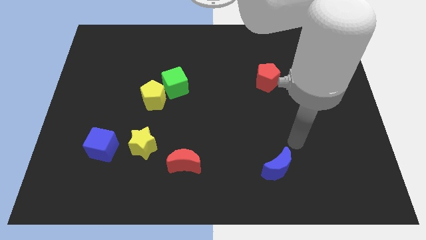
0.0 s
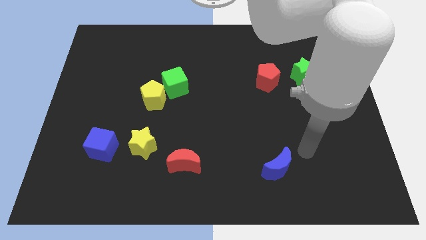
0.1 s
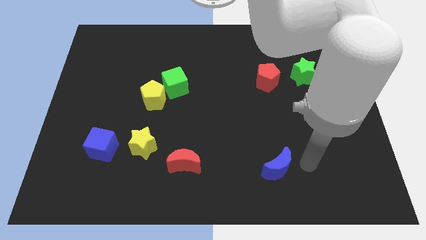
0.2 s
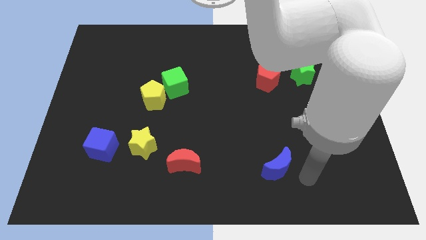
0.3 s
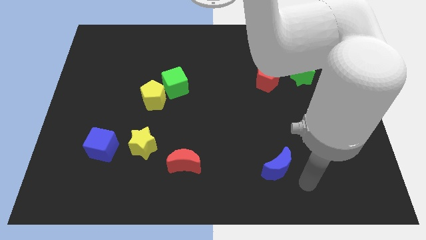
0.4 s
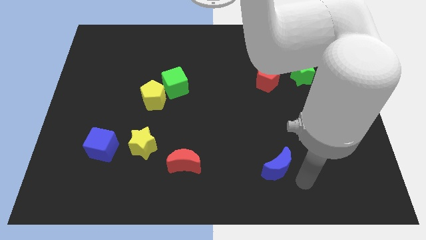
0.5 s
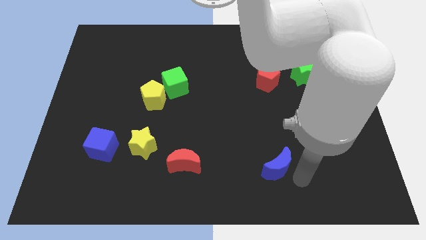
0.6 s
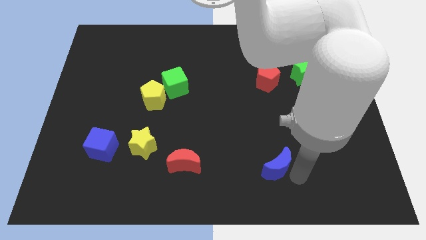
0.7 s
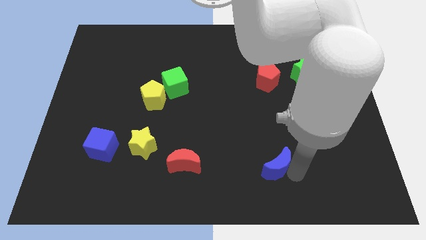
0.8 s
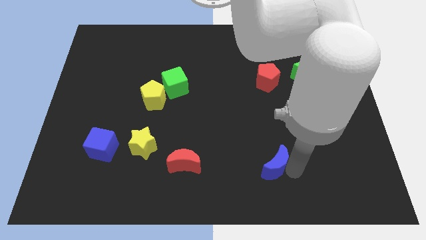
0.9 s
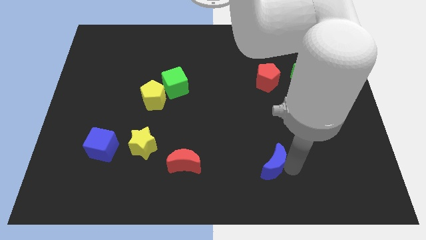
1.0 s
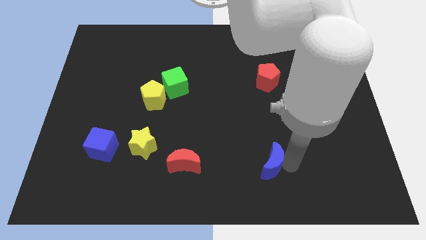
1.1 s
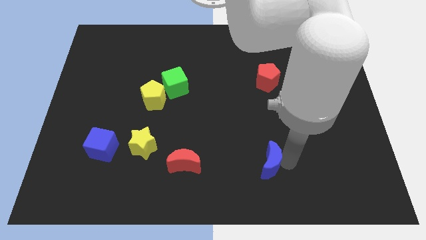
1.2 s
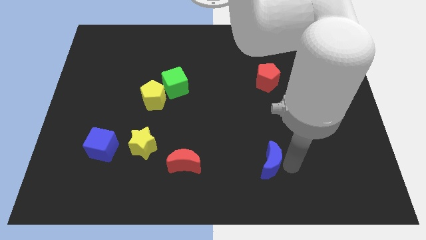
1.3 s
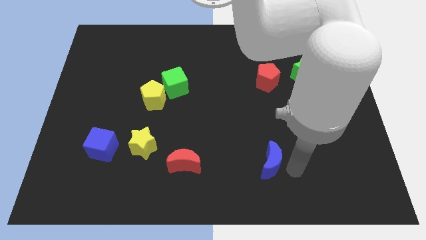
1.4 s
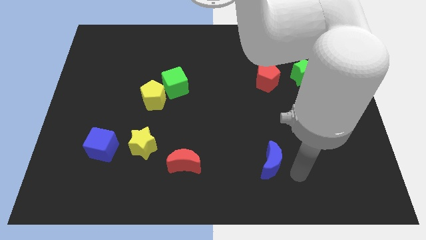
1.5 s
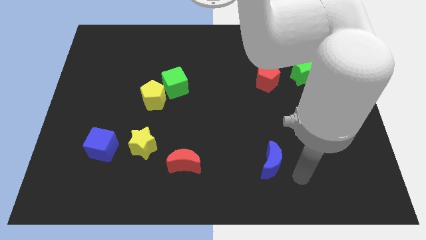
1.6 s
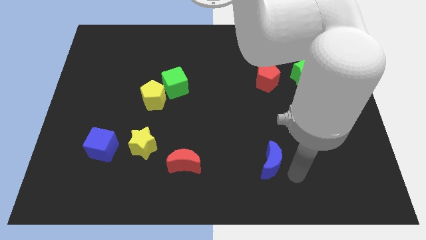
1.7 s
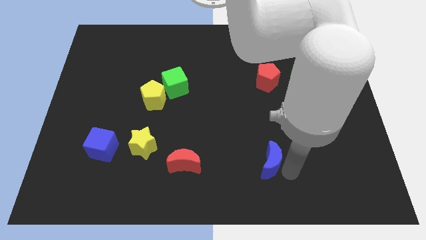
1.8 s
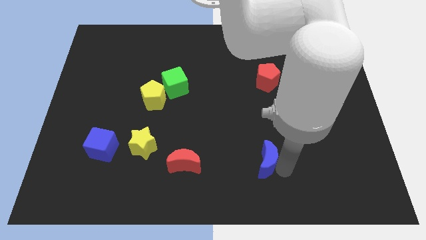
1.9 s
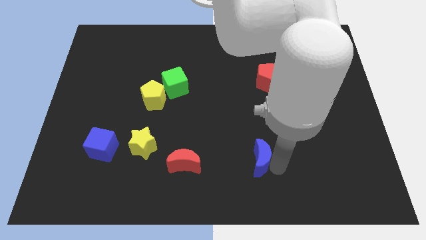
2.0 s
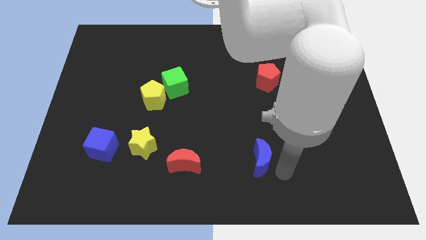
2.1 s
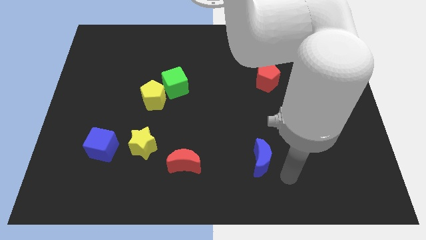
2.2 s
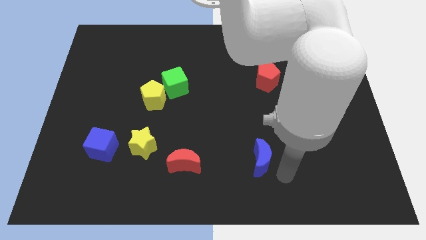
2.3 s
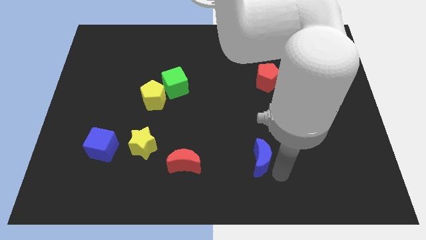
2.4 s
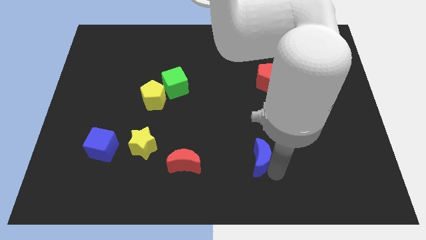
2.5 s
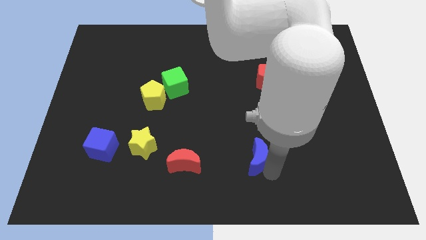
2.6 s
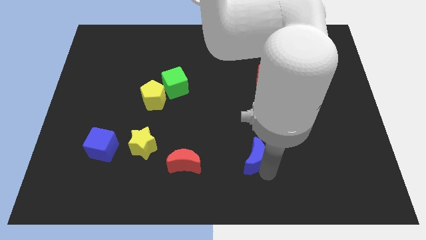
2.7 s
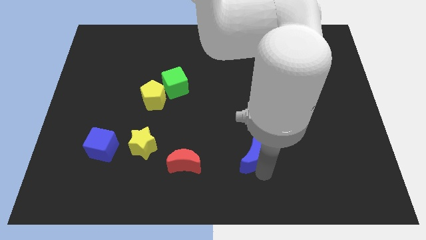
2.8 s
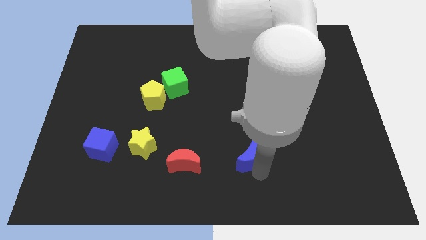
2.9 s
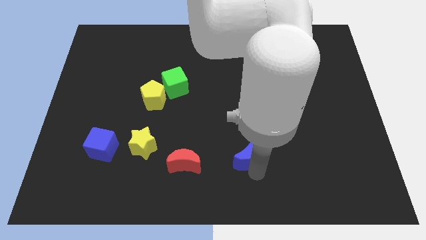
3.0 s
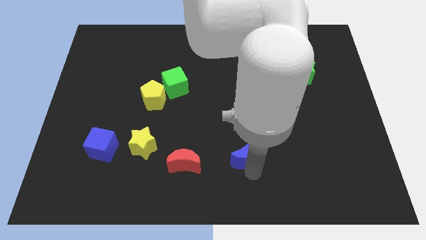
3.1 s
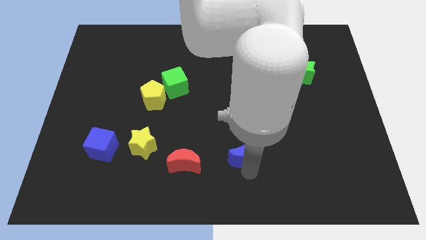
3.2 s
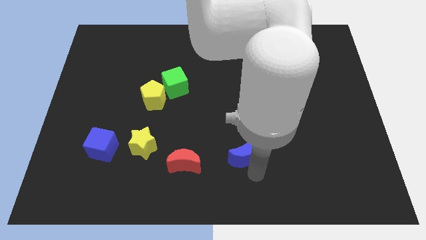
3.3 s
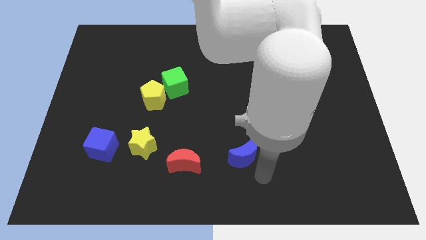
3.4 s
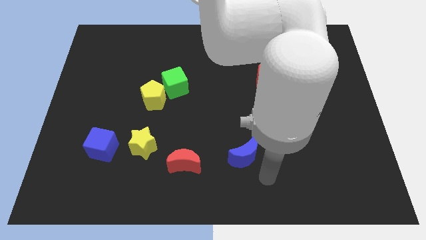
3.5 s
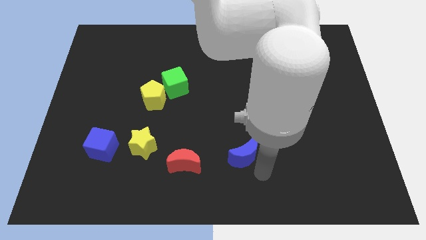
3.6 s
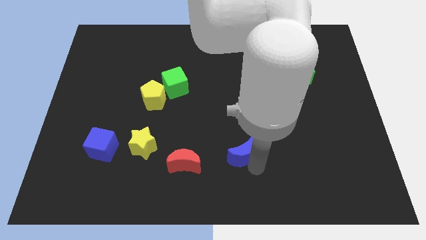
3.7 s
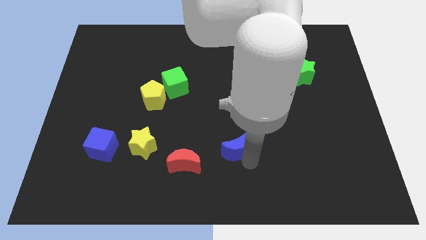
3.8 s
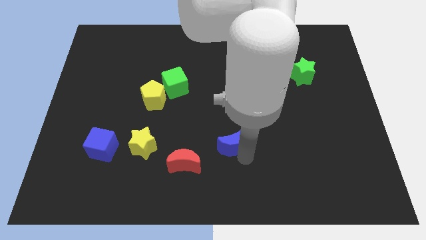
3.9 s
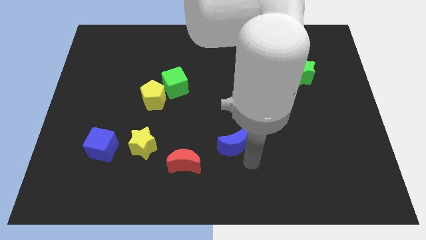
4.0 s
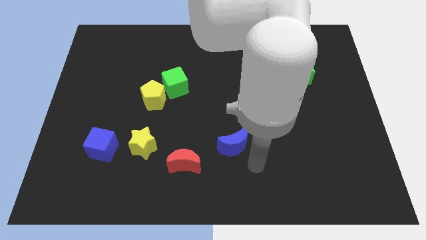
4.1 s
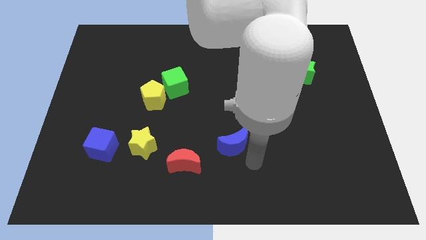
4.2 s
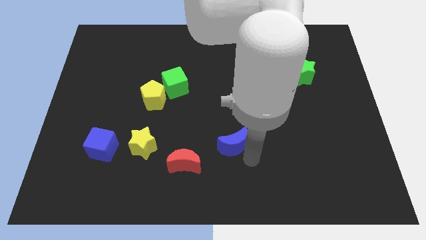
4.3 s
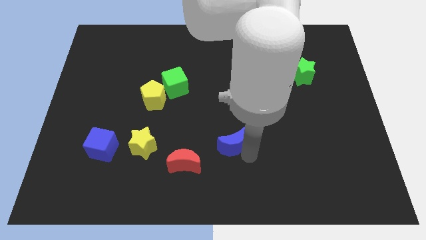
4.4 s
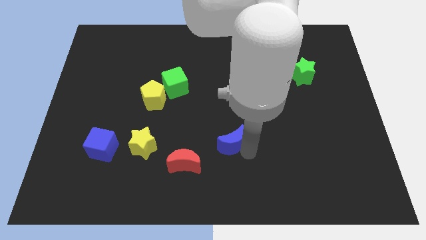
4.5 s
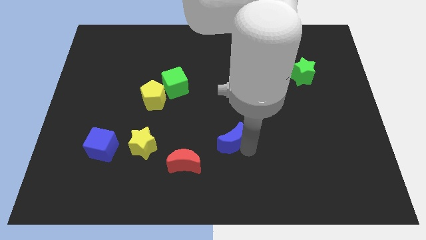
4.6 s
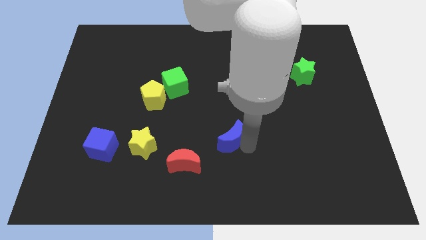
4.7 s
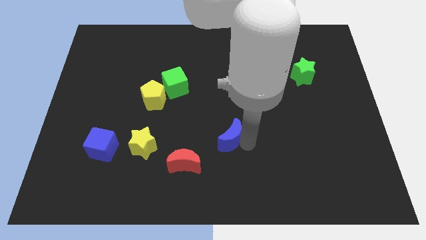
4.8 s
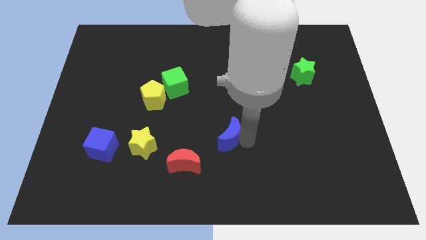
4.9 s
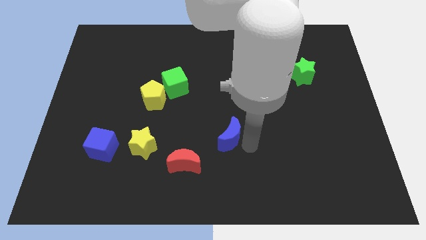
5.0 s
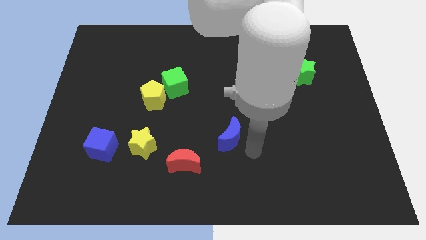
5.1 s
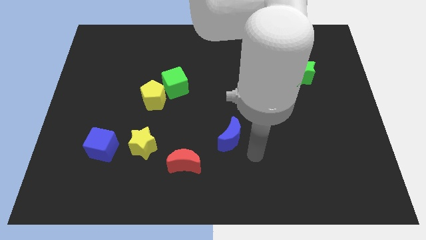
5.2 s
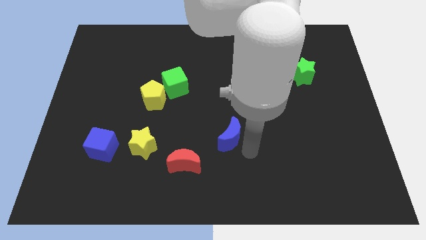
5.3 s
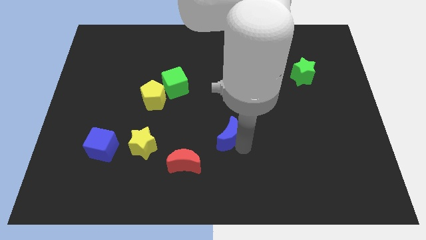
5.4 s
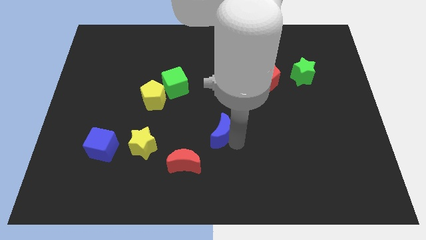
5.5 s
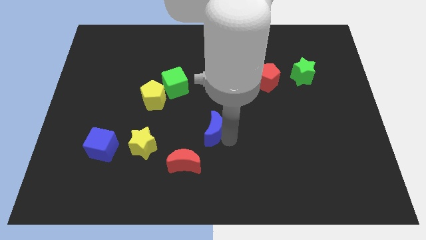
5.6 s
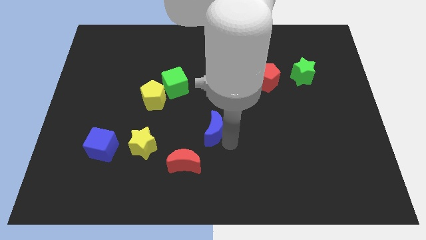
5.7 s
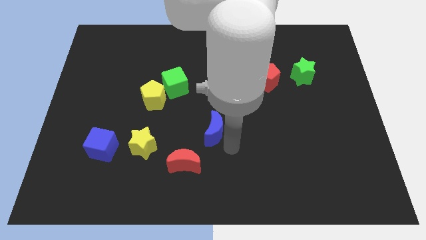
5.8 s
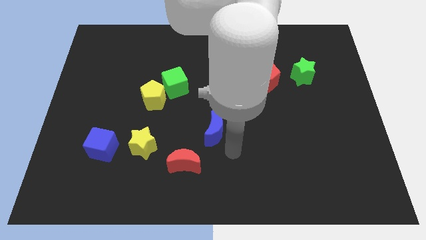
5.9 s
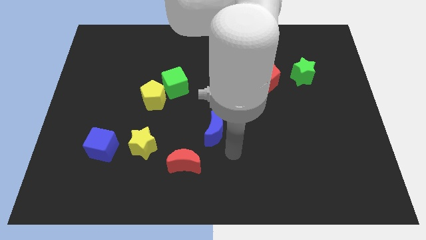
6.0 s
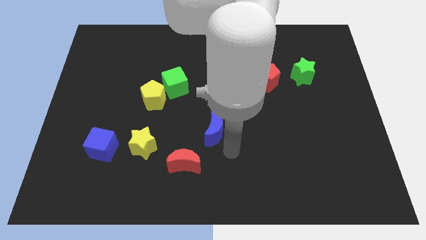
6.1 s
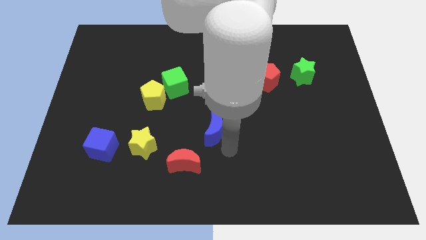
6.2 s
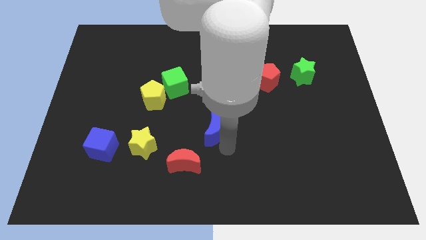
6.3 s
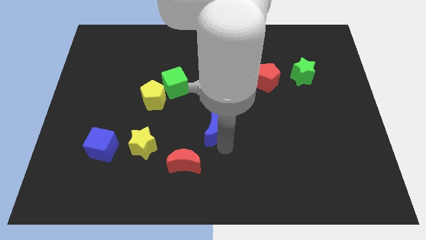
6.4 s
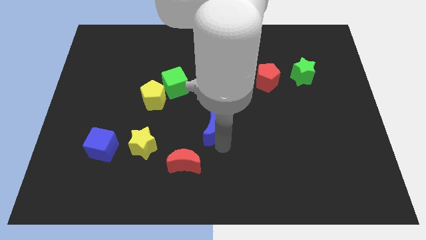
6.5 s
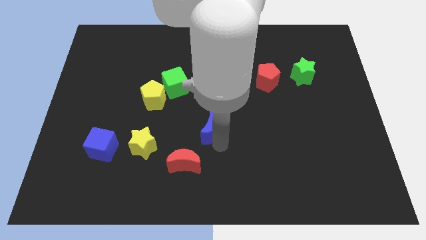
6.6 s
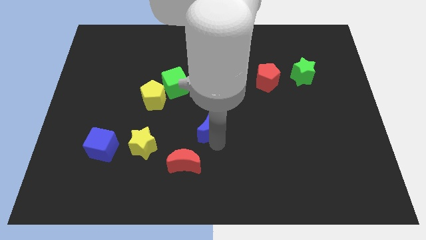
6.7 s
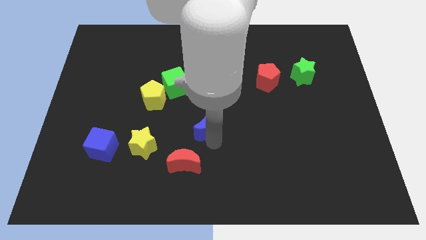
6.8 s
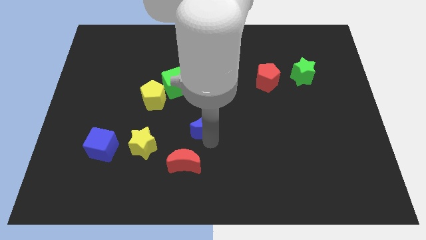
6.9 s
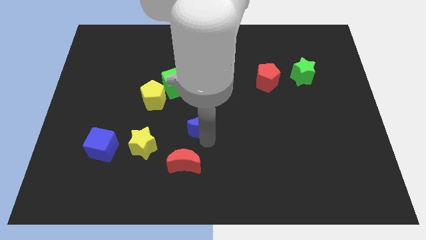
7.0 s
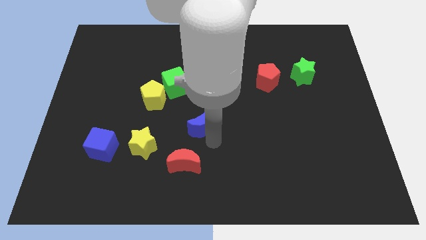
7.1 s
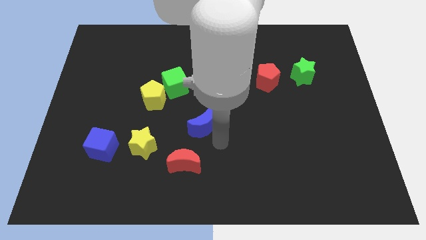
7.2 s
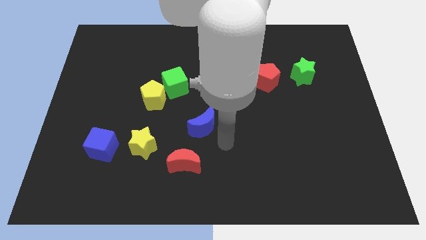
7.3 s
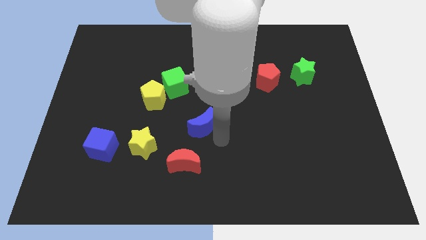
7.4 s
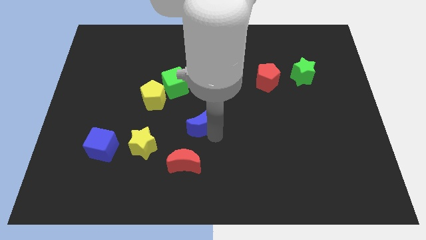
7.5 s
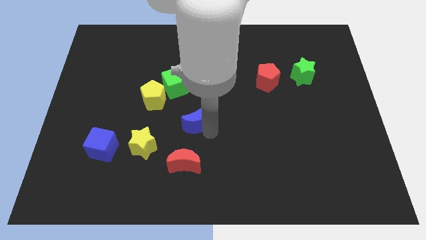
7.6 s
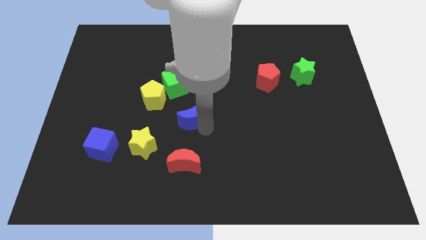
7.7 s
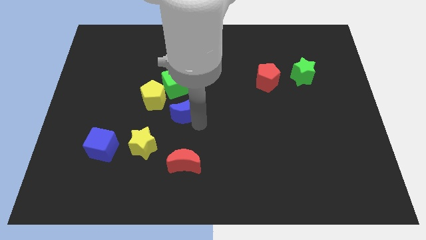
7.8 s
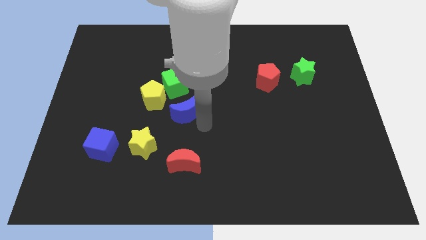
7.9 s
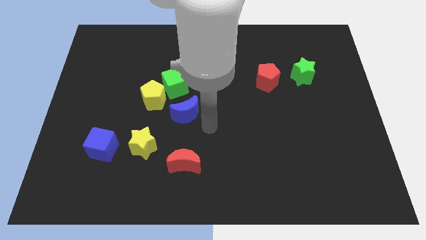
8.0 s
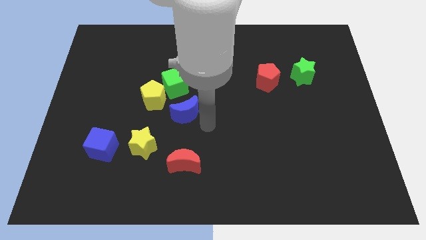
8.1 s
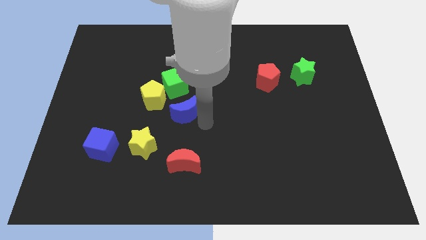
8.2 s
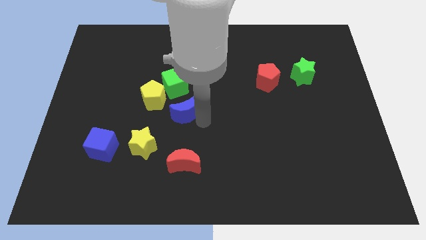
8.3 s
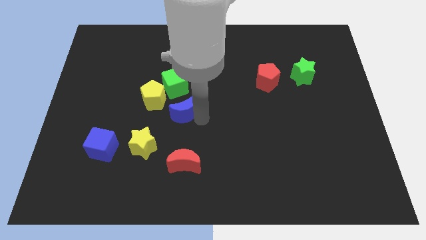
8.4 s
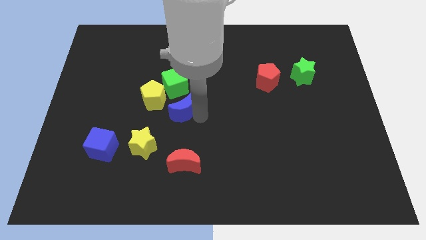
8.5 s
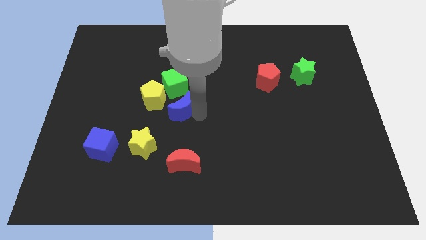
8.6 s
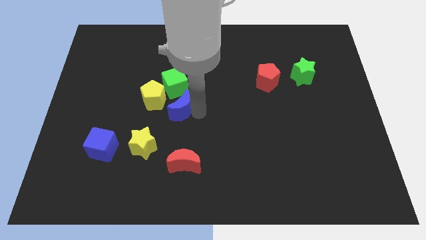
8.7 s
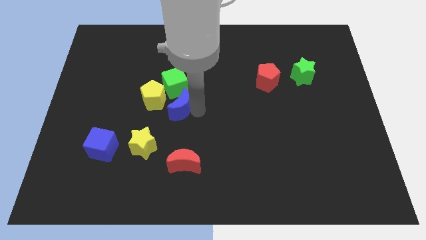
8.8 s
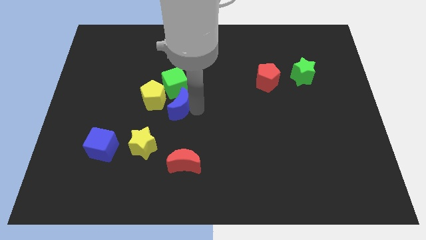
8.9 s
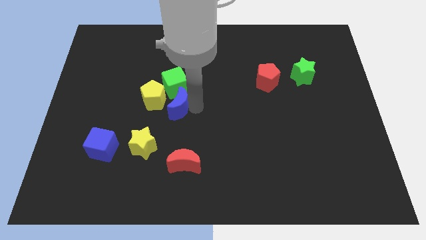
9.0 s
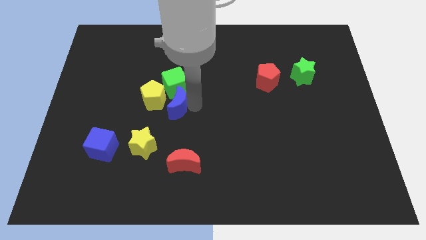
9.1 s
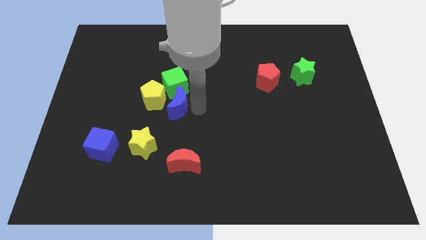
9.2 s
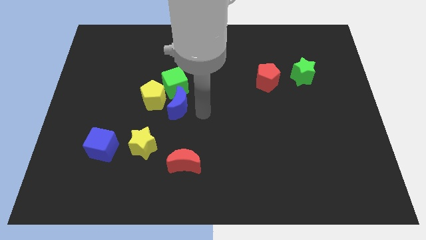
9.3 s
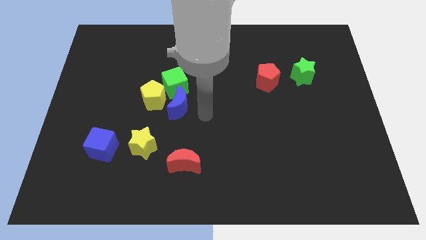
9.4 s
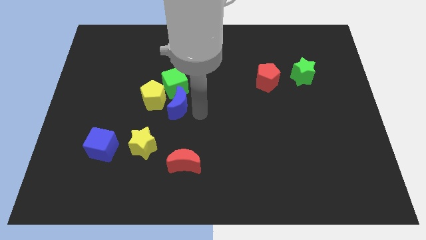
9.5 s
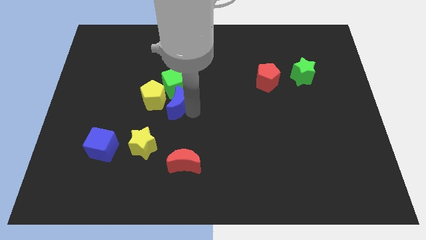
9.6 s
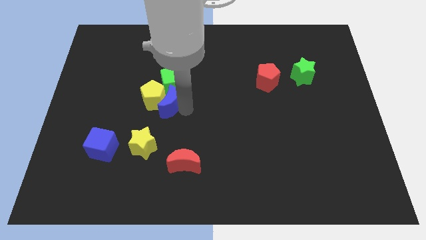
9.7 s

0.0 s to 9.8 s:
push the blue moon next to the yellow pentagon
